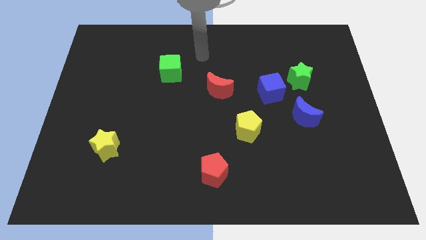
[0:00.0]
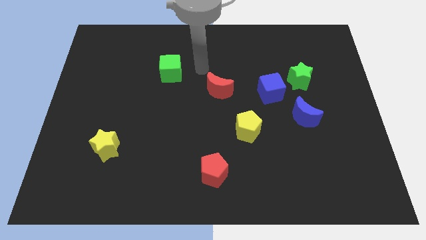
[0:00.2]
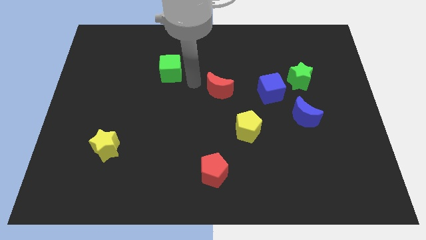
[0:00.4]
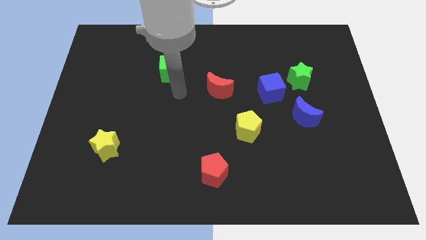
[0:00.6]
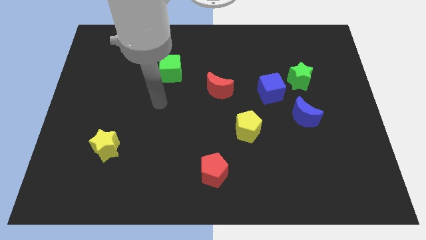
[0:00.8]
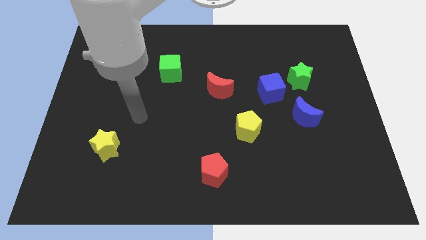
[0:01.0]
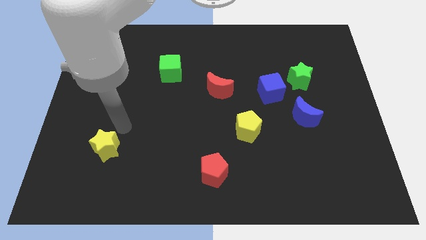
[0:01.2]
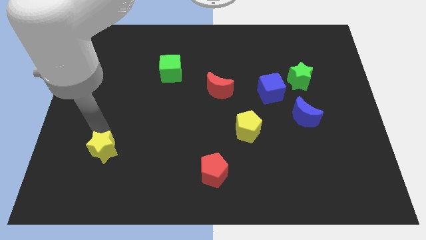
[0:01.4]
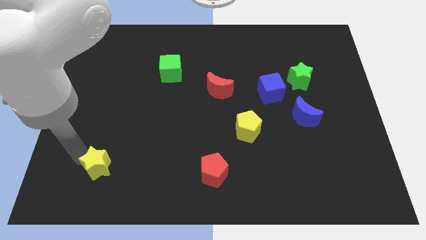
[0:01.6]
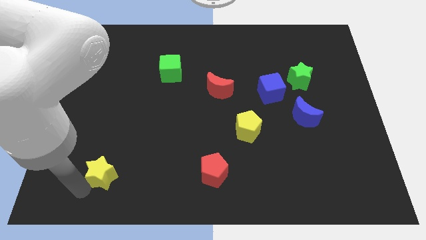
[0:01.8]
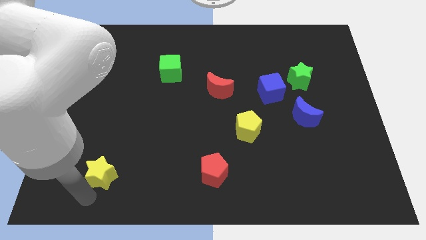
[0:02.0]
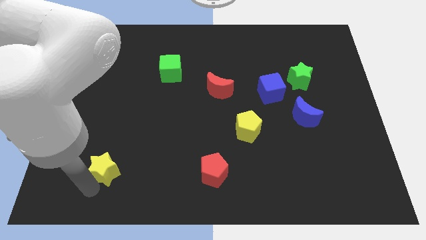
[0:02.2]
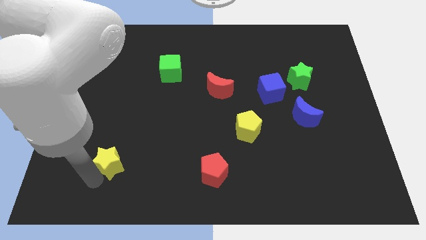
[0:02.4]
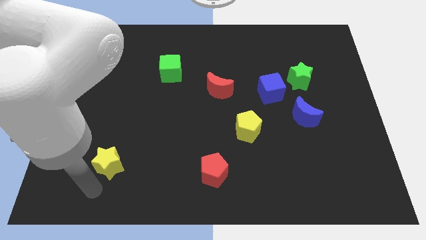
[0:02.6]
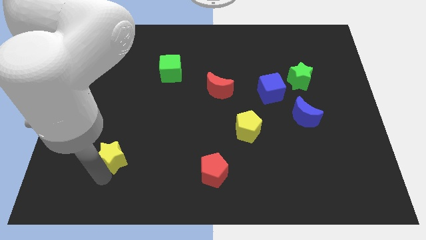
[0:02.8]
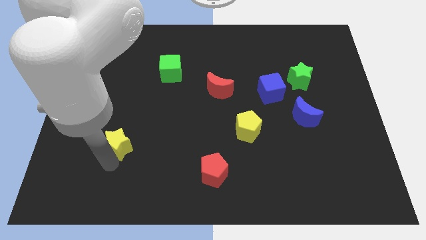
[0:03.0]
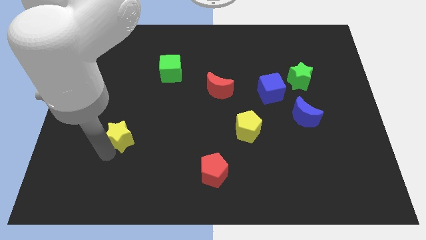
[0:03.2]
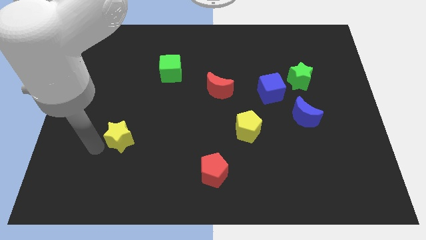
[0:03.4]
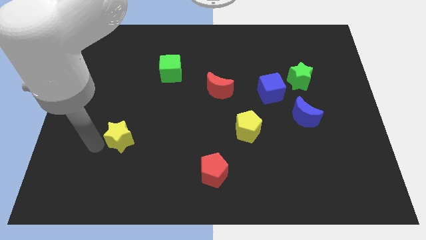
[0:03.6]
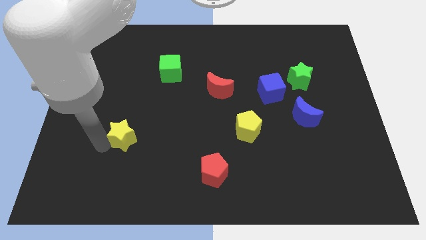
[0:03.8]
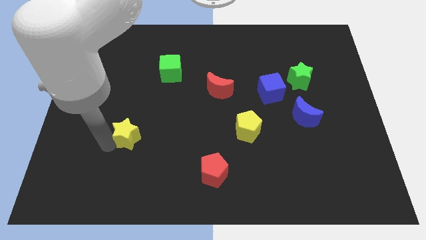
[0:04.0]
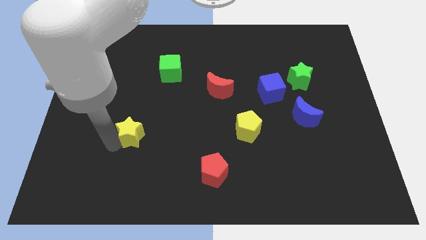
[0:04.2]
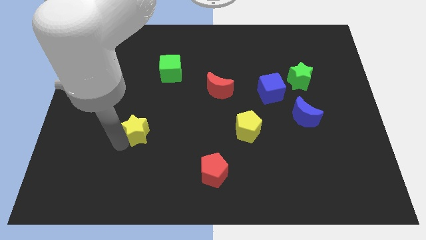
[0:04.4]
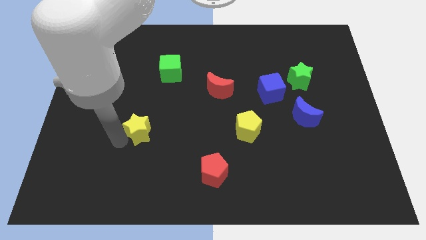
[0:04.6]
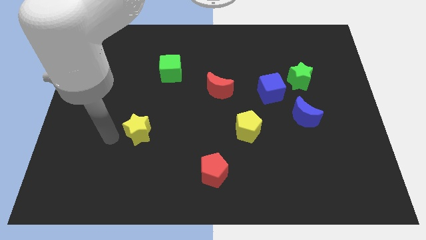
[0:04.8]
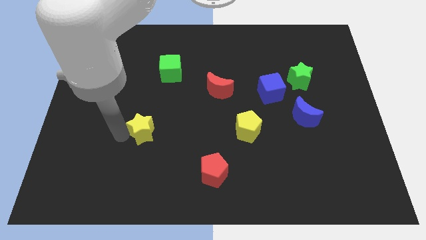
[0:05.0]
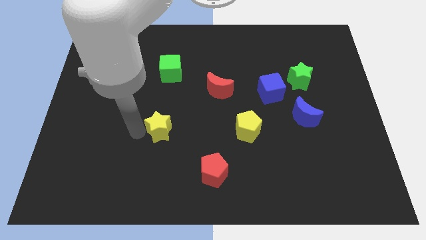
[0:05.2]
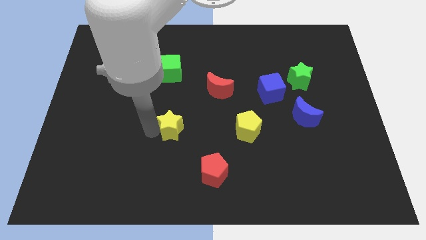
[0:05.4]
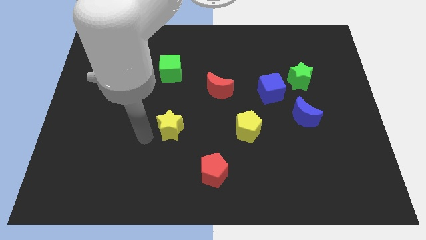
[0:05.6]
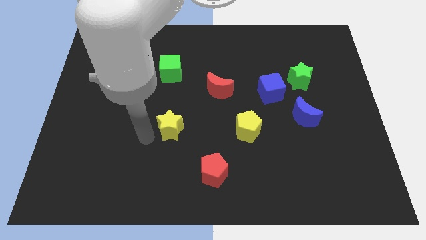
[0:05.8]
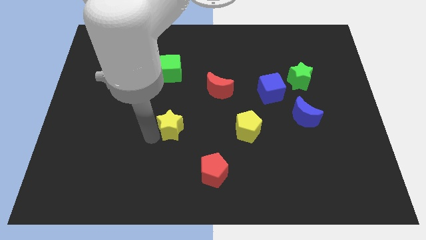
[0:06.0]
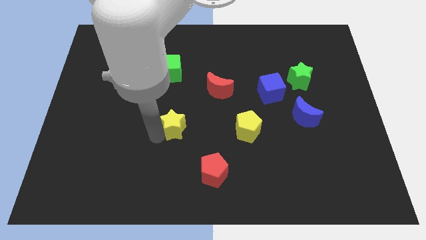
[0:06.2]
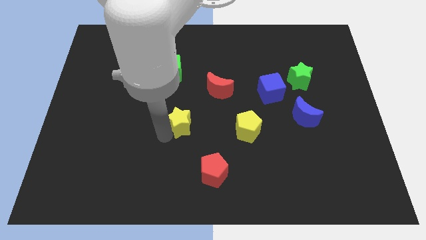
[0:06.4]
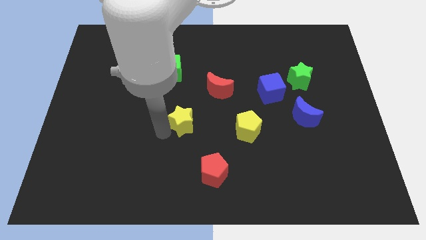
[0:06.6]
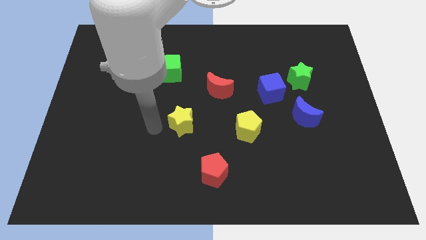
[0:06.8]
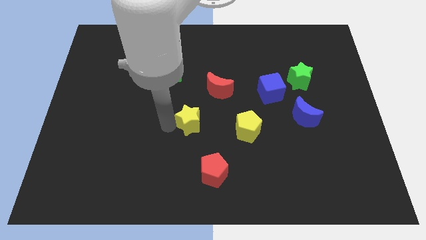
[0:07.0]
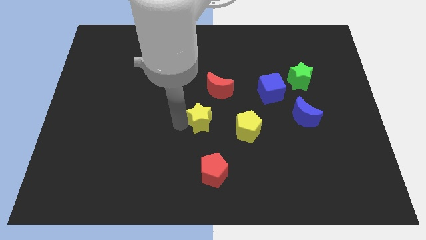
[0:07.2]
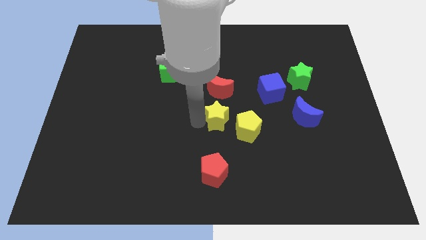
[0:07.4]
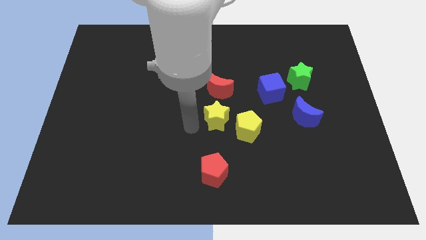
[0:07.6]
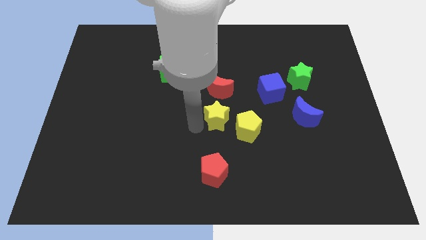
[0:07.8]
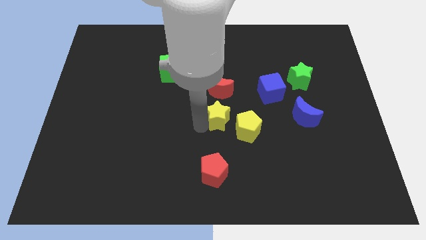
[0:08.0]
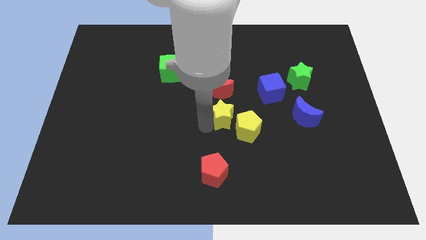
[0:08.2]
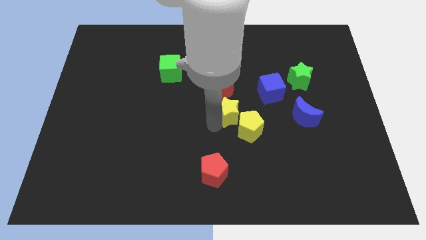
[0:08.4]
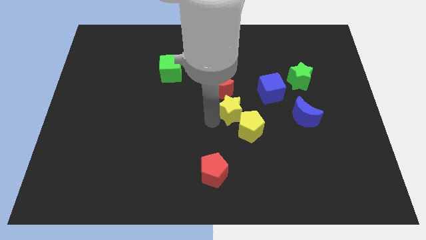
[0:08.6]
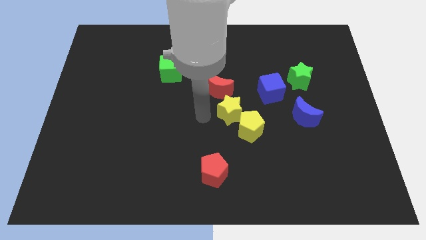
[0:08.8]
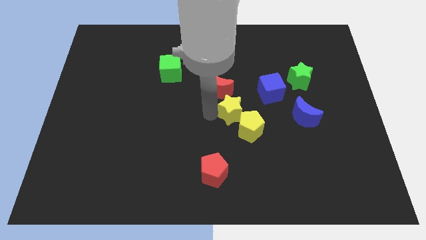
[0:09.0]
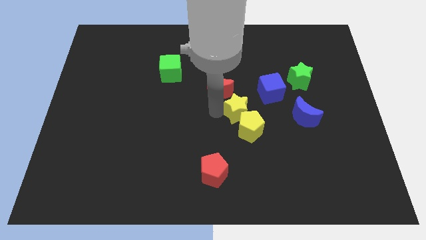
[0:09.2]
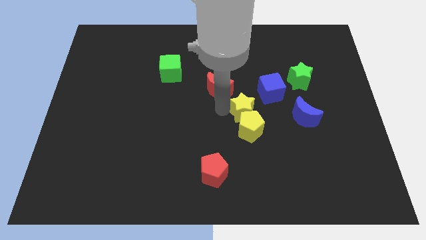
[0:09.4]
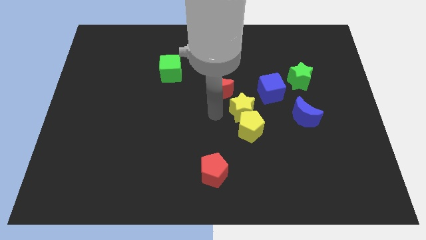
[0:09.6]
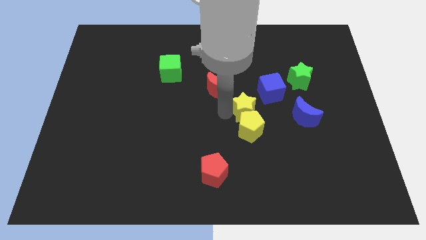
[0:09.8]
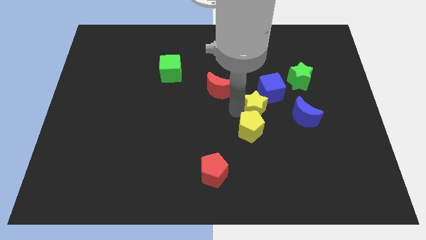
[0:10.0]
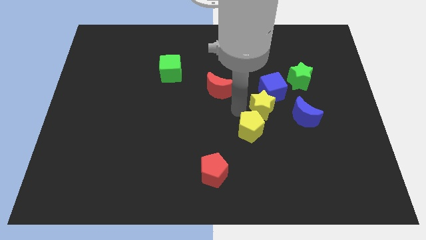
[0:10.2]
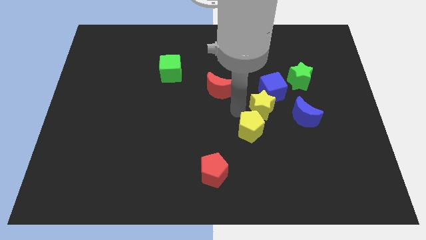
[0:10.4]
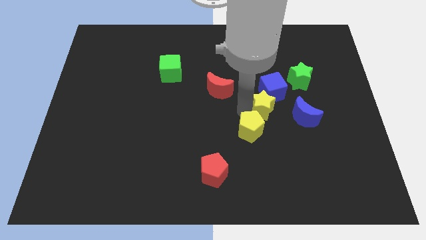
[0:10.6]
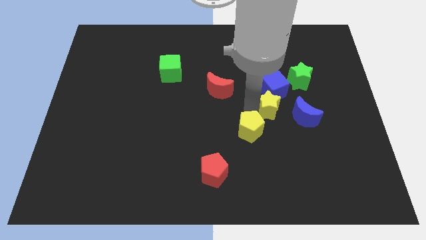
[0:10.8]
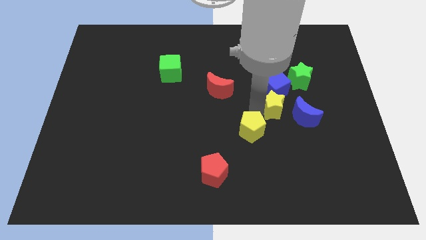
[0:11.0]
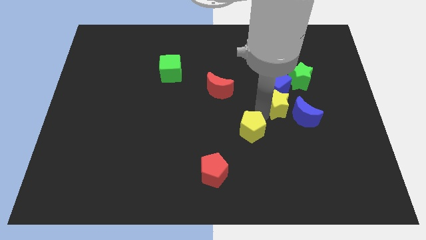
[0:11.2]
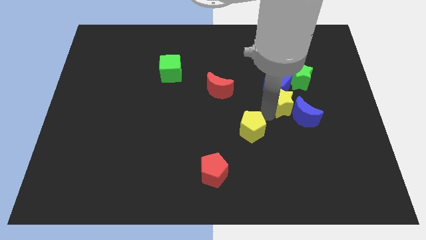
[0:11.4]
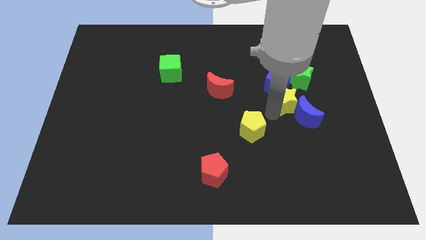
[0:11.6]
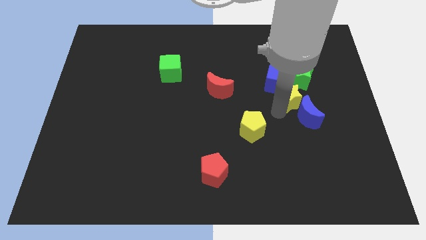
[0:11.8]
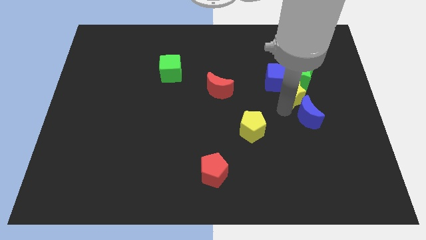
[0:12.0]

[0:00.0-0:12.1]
push the yellow star close to the green star

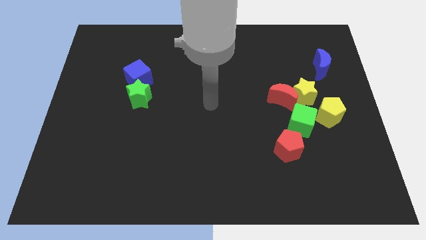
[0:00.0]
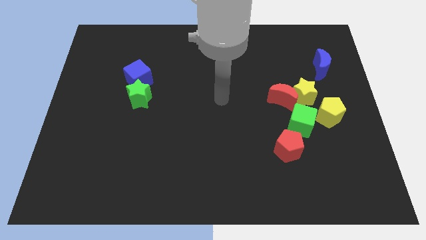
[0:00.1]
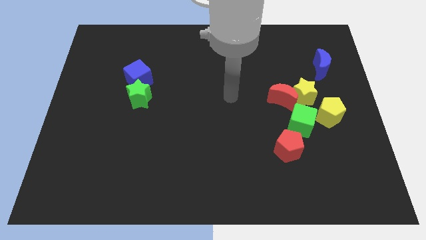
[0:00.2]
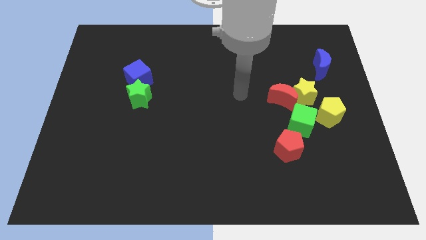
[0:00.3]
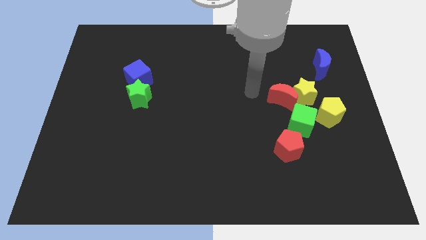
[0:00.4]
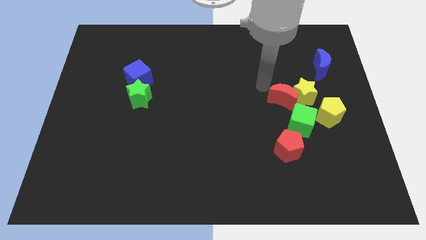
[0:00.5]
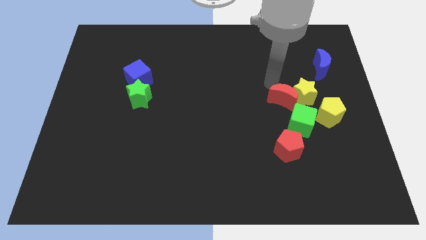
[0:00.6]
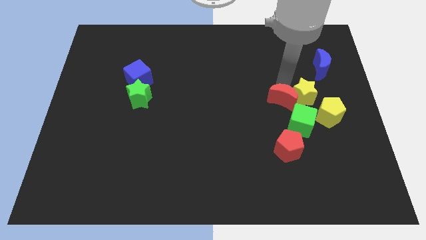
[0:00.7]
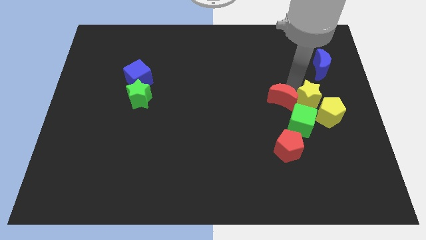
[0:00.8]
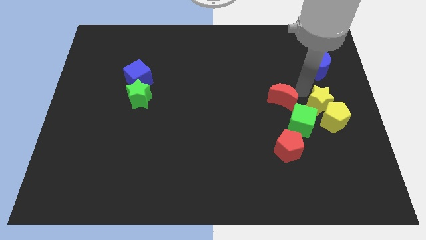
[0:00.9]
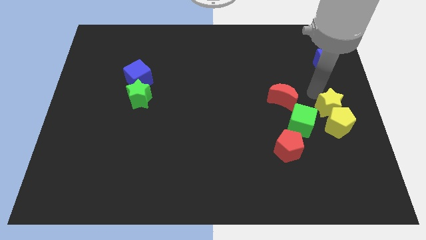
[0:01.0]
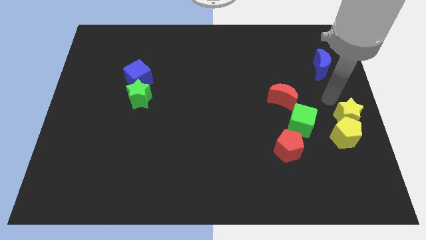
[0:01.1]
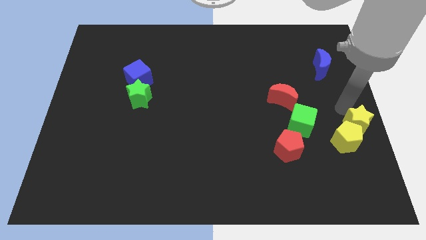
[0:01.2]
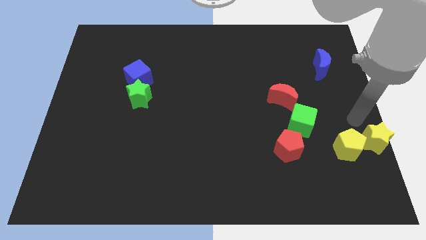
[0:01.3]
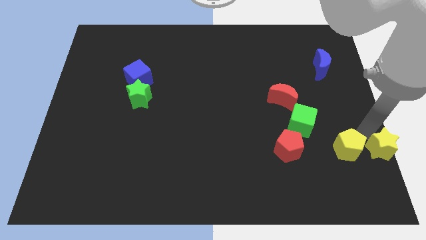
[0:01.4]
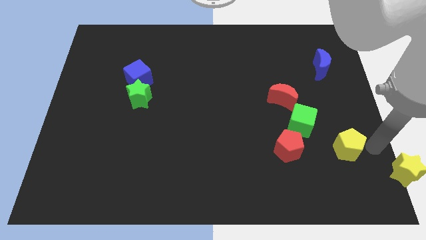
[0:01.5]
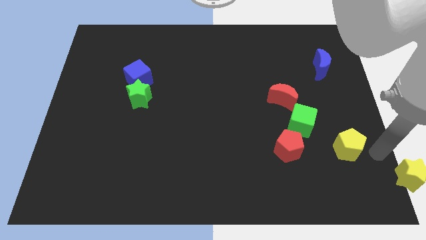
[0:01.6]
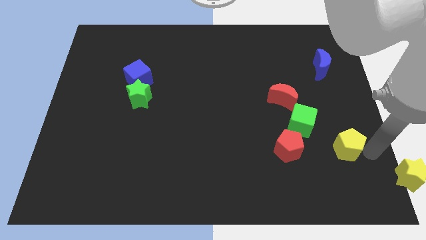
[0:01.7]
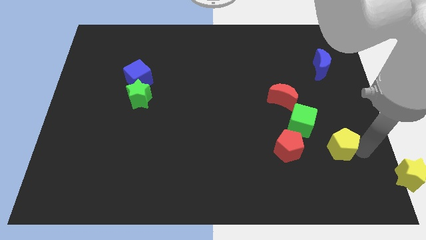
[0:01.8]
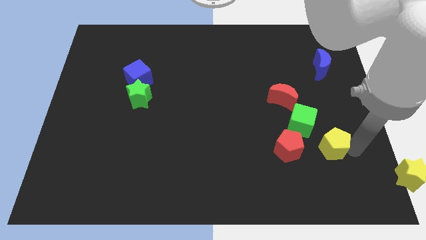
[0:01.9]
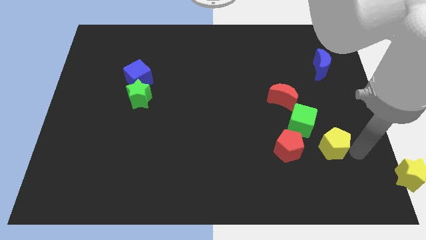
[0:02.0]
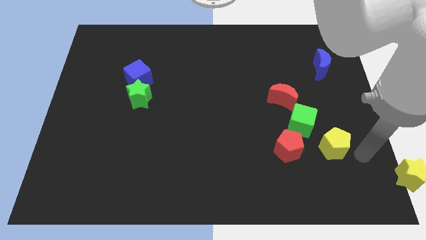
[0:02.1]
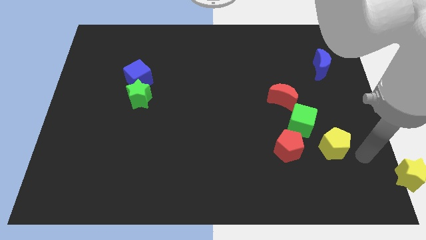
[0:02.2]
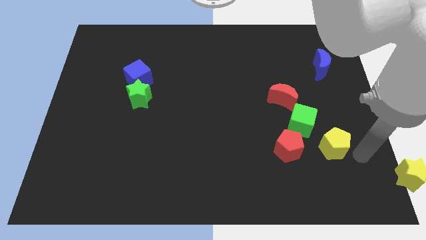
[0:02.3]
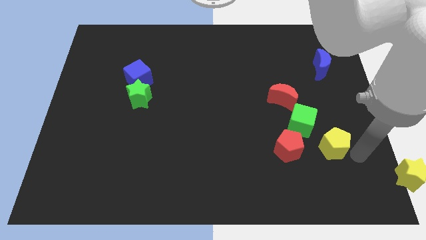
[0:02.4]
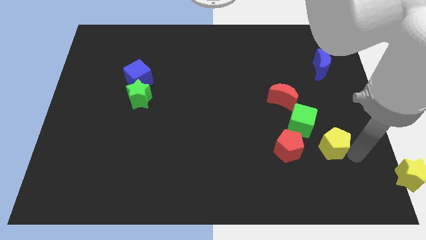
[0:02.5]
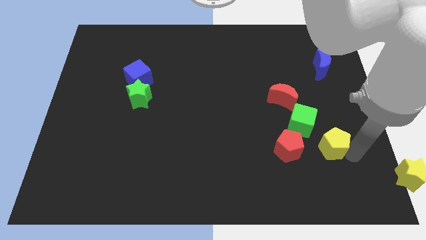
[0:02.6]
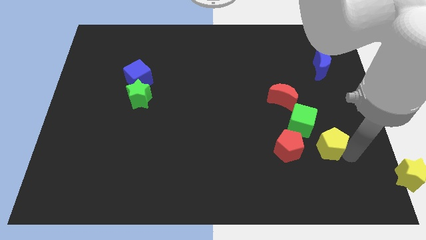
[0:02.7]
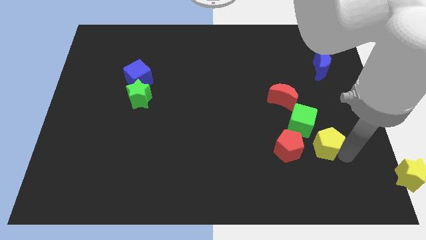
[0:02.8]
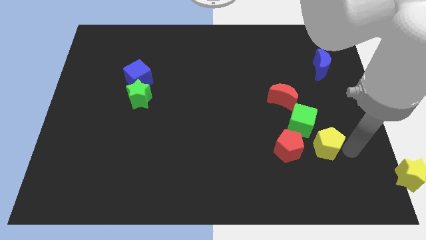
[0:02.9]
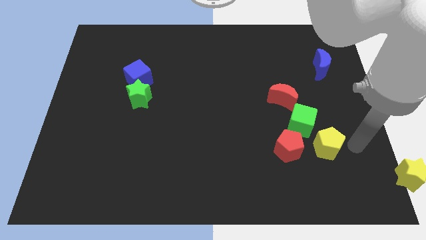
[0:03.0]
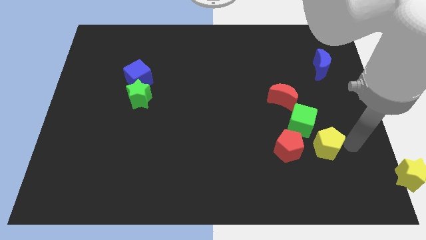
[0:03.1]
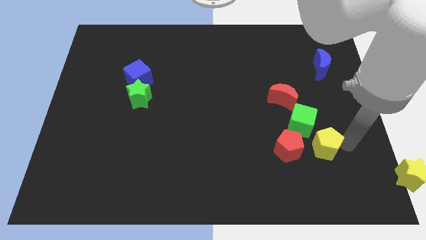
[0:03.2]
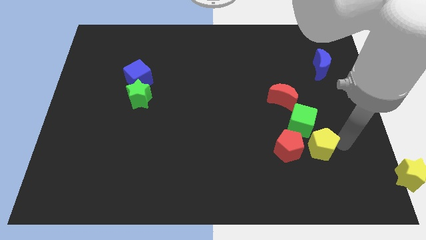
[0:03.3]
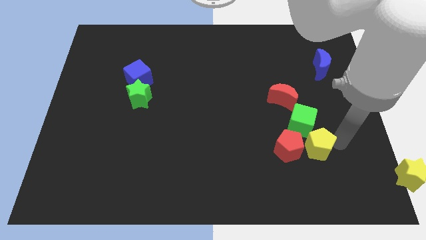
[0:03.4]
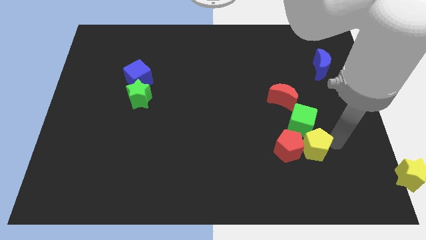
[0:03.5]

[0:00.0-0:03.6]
push the yellow pentagon next to the red pentagon
